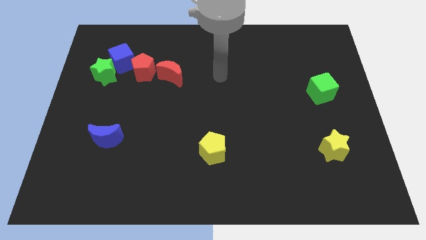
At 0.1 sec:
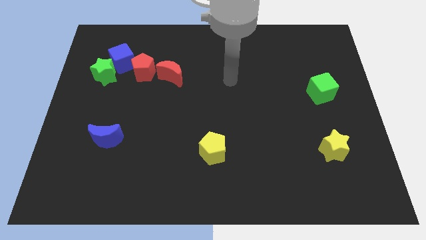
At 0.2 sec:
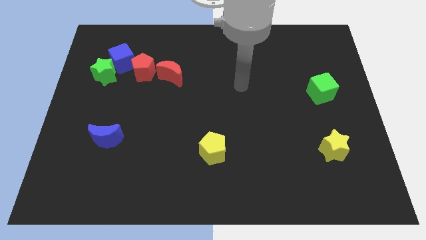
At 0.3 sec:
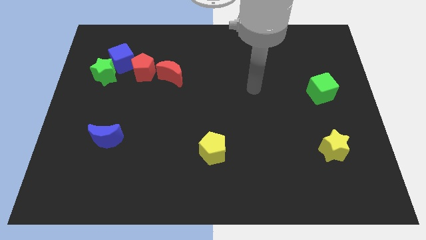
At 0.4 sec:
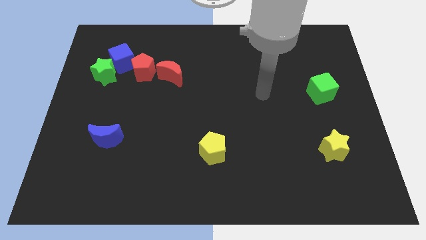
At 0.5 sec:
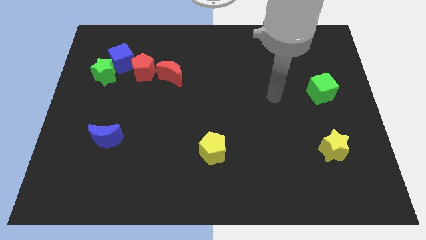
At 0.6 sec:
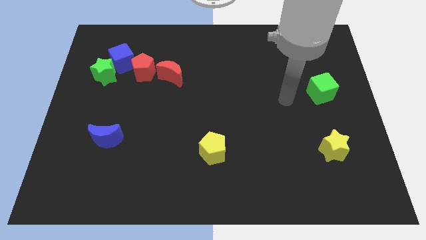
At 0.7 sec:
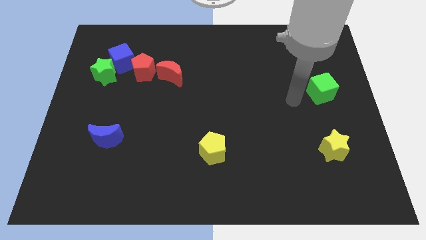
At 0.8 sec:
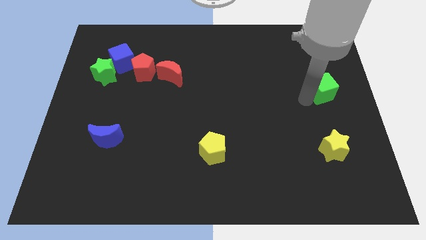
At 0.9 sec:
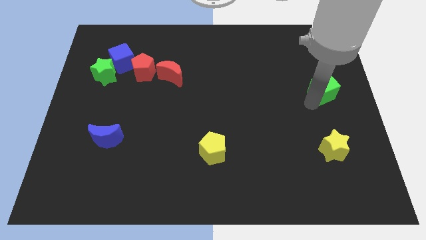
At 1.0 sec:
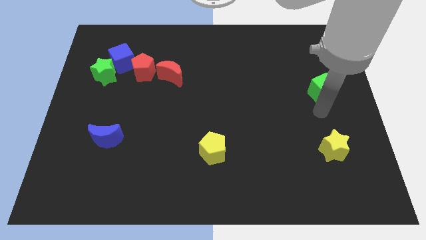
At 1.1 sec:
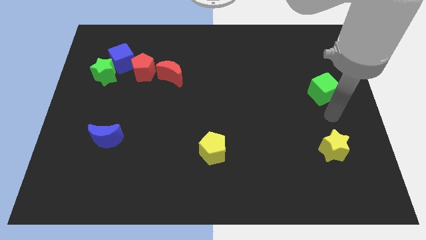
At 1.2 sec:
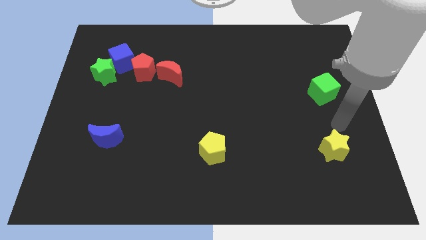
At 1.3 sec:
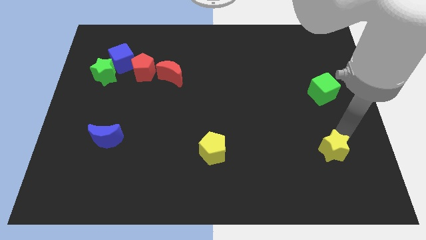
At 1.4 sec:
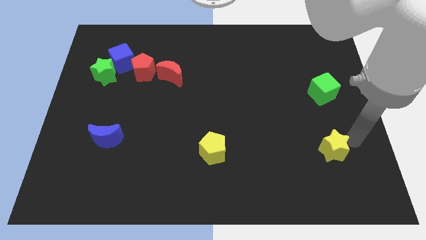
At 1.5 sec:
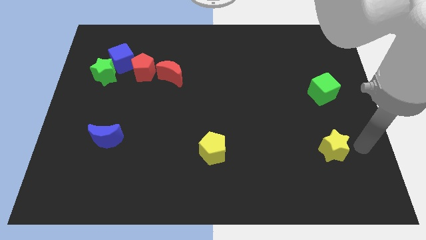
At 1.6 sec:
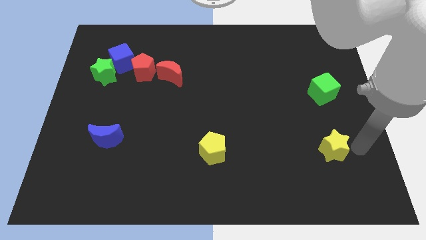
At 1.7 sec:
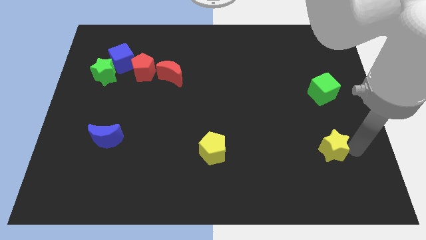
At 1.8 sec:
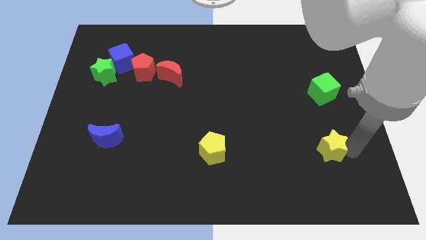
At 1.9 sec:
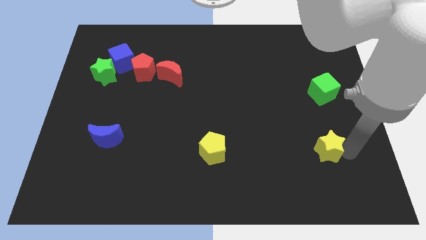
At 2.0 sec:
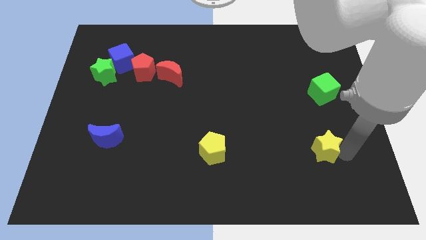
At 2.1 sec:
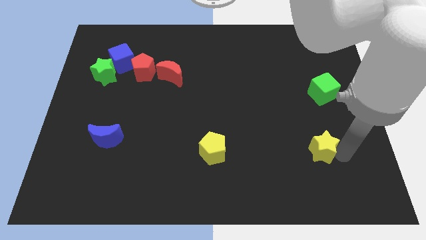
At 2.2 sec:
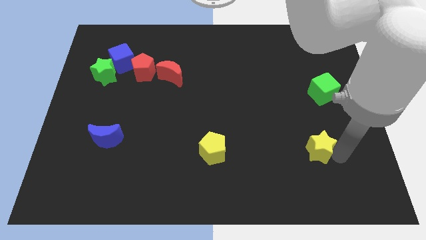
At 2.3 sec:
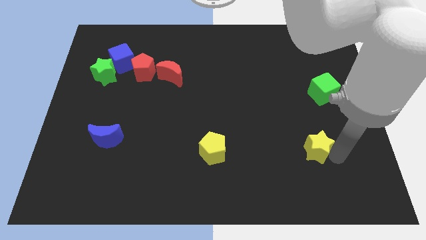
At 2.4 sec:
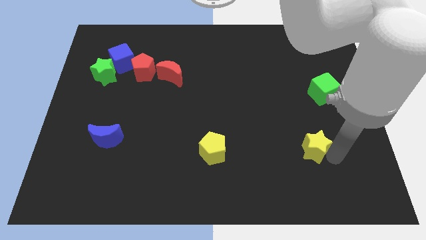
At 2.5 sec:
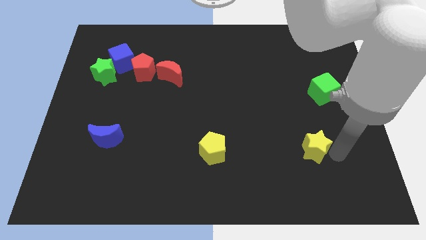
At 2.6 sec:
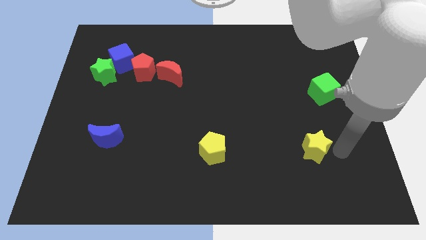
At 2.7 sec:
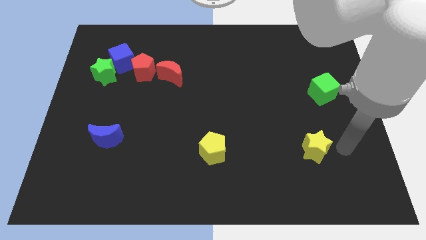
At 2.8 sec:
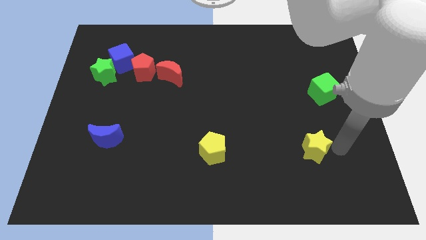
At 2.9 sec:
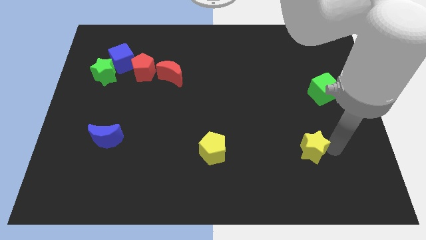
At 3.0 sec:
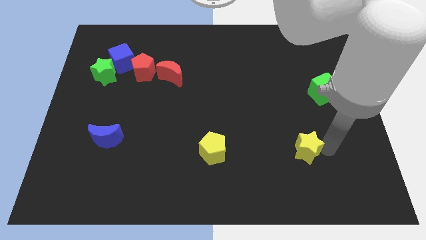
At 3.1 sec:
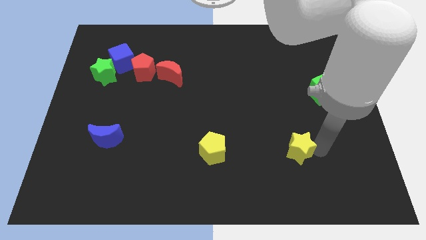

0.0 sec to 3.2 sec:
slightly push the yellow star to the left

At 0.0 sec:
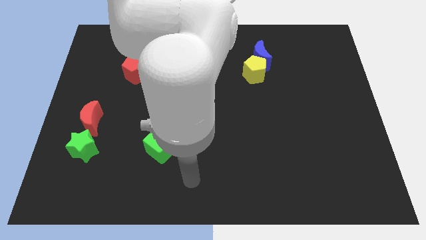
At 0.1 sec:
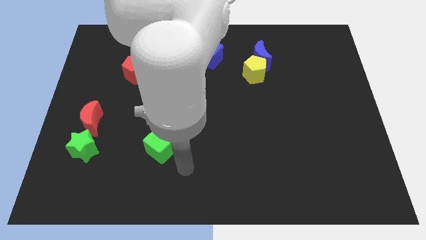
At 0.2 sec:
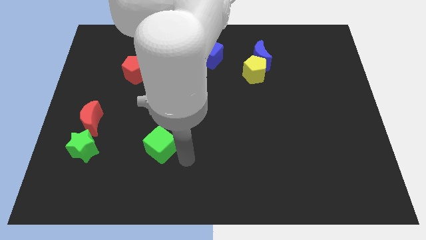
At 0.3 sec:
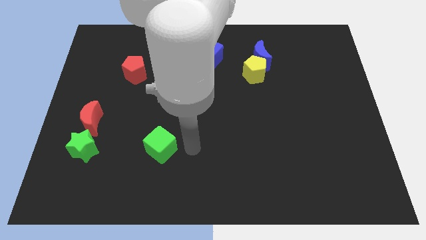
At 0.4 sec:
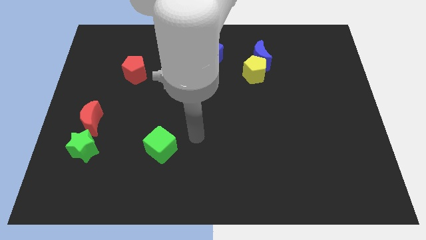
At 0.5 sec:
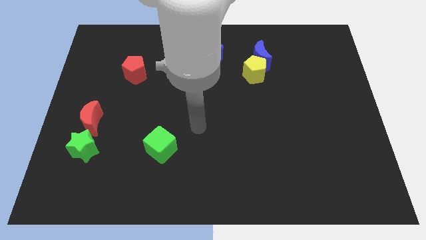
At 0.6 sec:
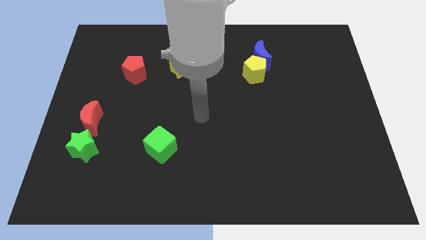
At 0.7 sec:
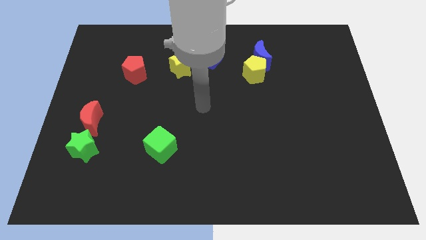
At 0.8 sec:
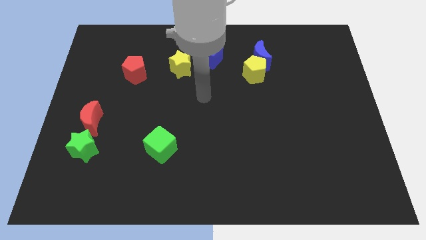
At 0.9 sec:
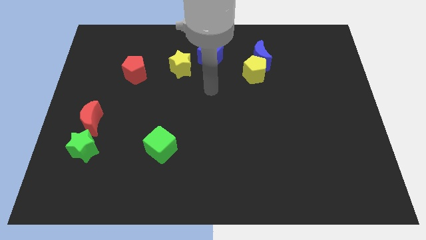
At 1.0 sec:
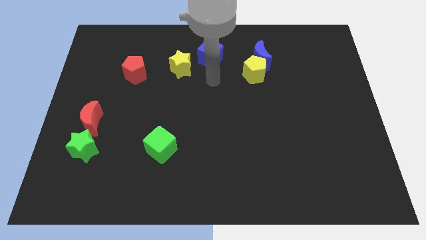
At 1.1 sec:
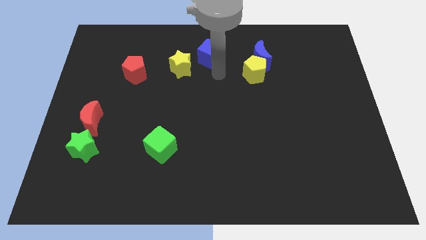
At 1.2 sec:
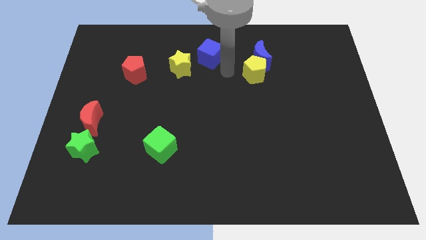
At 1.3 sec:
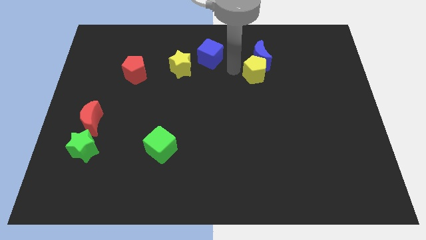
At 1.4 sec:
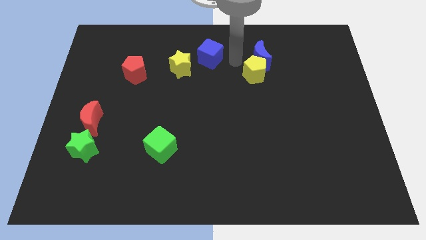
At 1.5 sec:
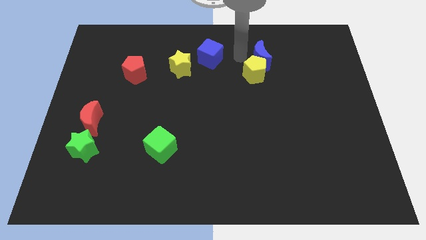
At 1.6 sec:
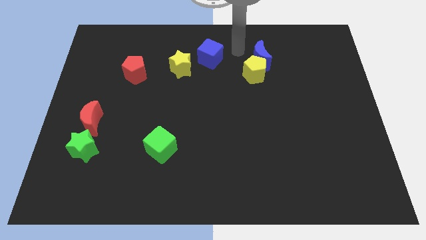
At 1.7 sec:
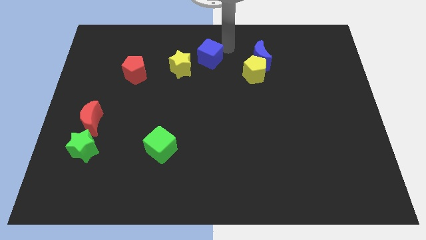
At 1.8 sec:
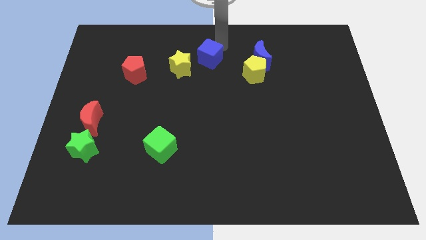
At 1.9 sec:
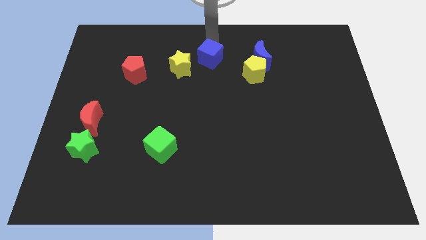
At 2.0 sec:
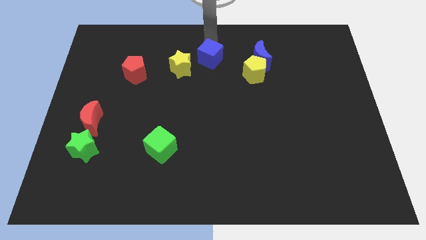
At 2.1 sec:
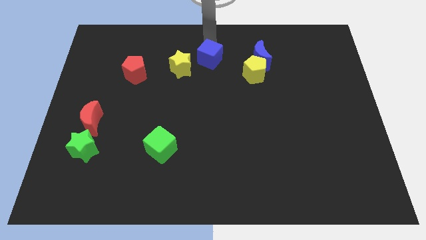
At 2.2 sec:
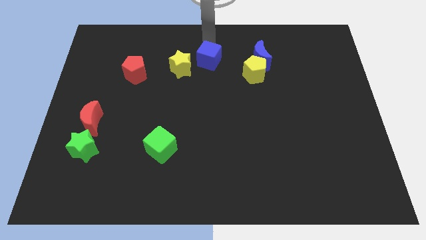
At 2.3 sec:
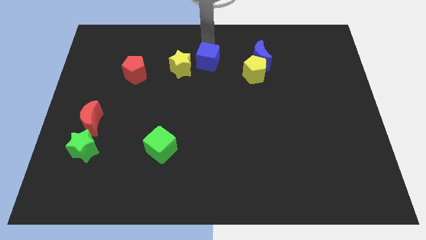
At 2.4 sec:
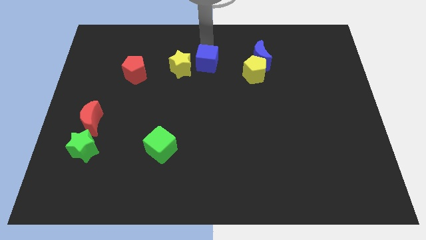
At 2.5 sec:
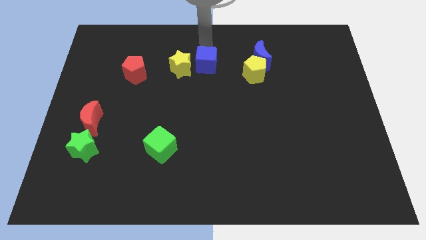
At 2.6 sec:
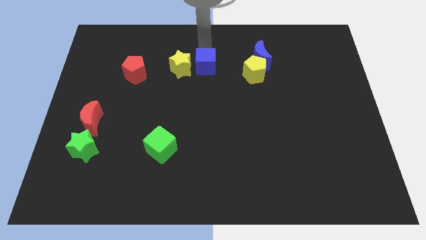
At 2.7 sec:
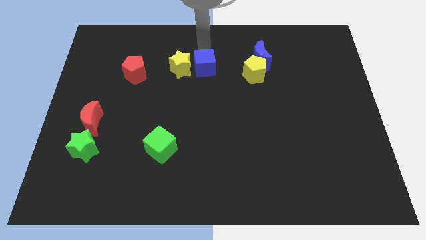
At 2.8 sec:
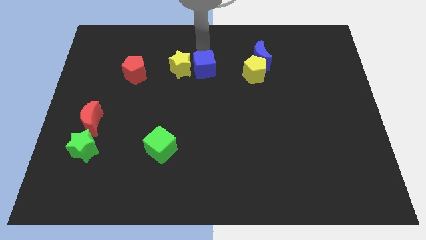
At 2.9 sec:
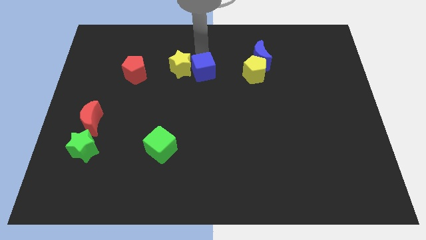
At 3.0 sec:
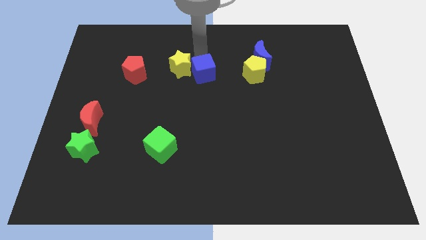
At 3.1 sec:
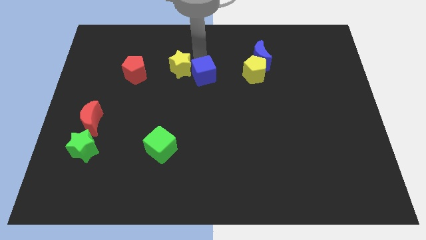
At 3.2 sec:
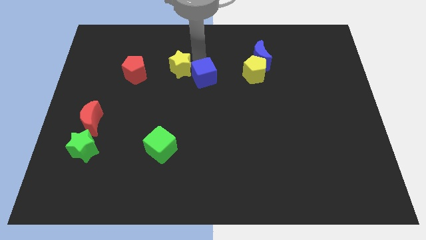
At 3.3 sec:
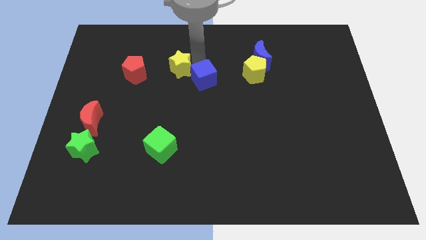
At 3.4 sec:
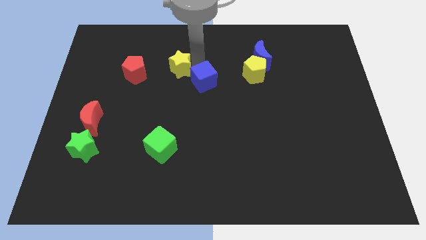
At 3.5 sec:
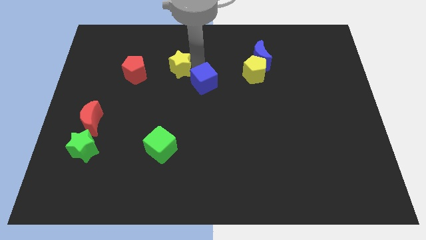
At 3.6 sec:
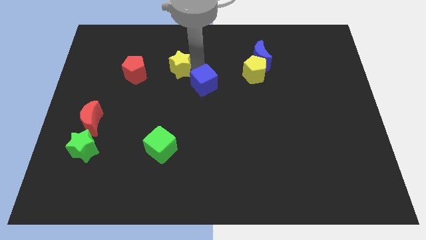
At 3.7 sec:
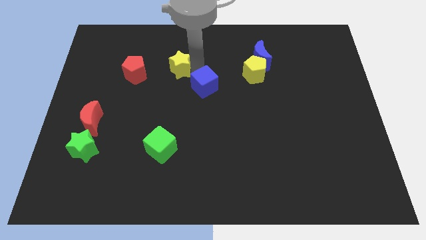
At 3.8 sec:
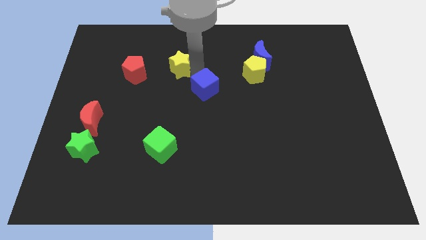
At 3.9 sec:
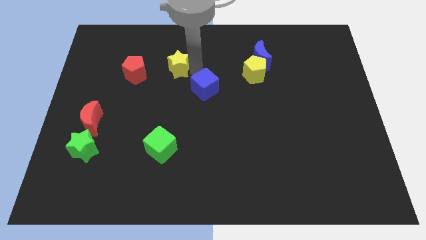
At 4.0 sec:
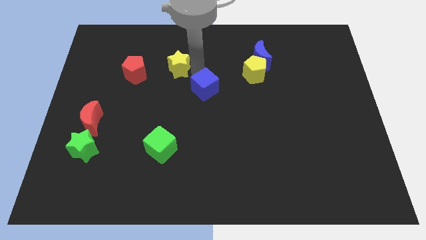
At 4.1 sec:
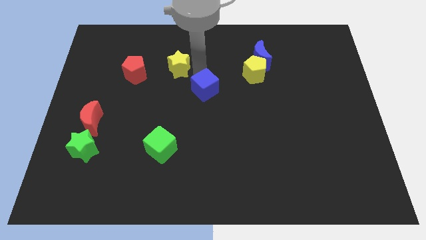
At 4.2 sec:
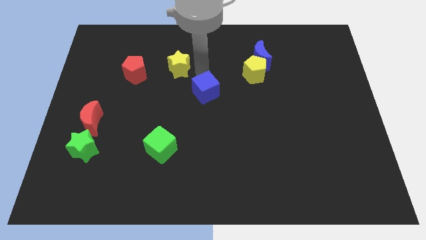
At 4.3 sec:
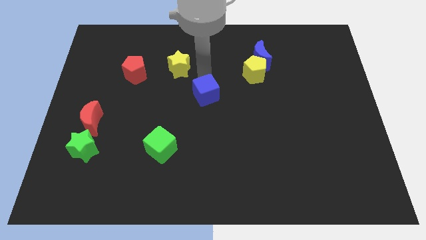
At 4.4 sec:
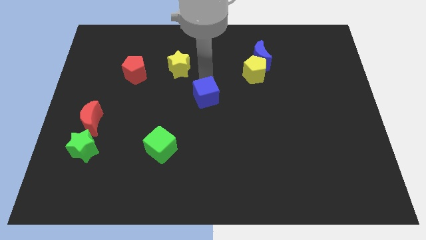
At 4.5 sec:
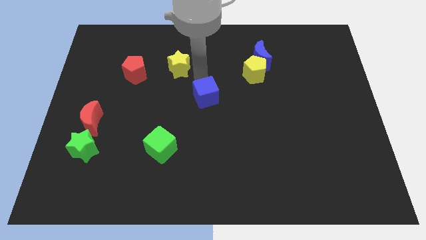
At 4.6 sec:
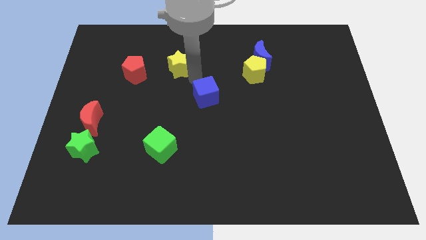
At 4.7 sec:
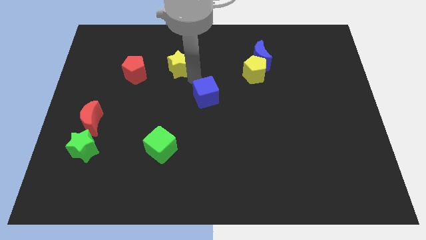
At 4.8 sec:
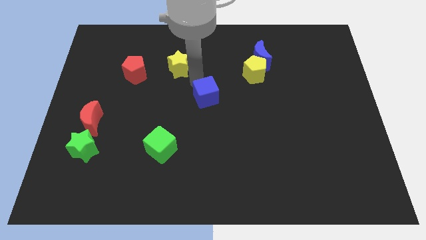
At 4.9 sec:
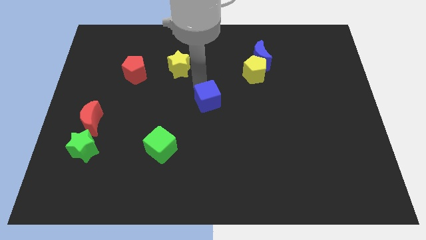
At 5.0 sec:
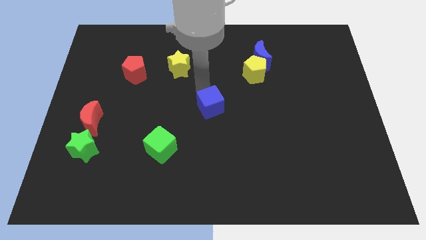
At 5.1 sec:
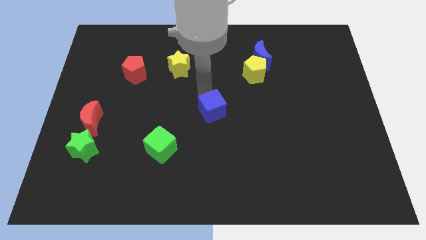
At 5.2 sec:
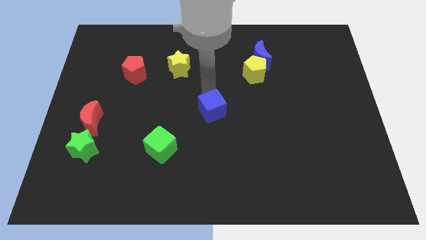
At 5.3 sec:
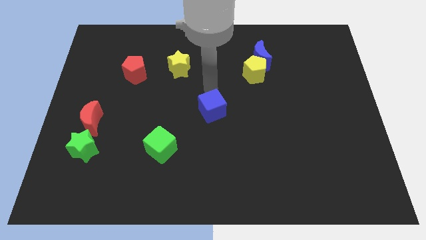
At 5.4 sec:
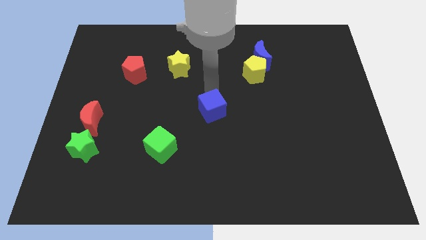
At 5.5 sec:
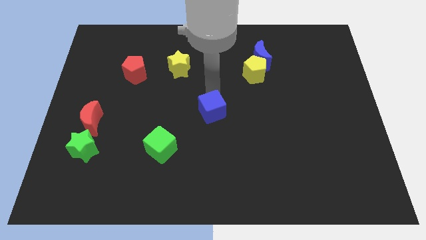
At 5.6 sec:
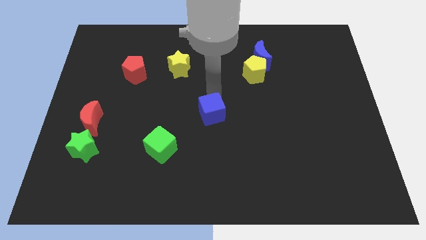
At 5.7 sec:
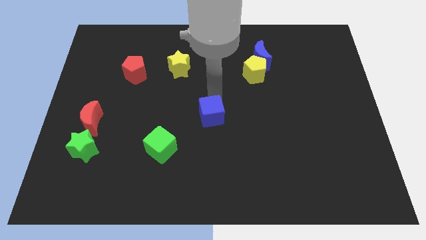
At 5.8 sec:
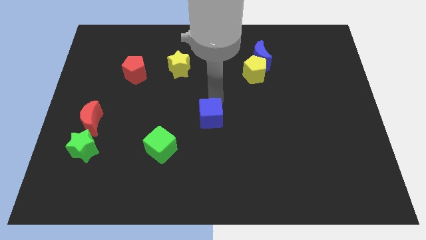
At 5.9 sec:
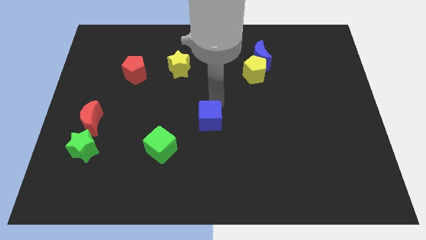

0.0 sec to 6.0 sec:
slide the blue cube down
